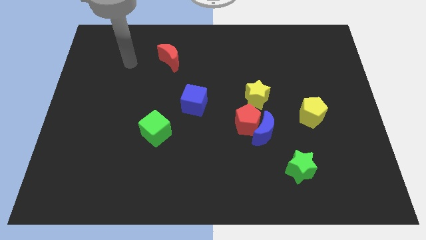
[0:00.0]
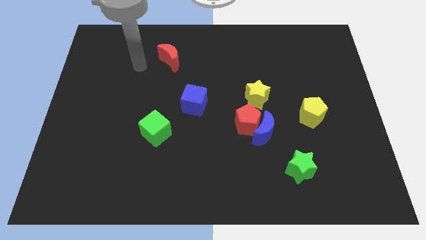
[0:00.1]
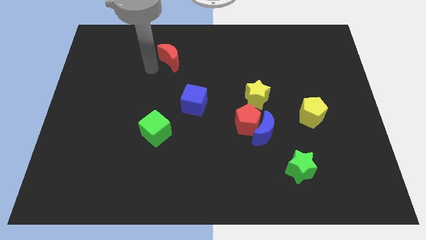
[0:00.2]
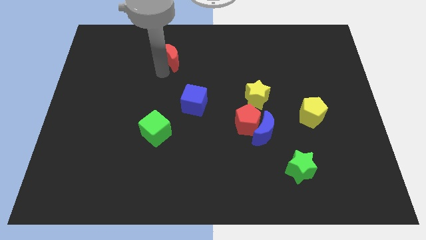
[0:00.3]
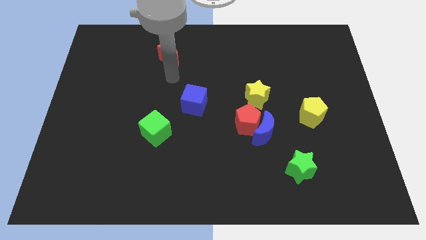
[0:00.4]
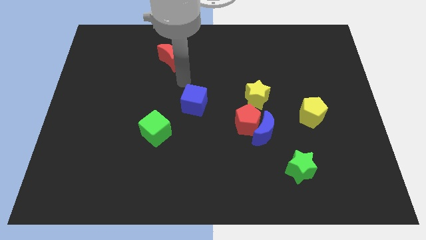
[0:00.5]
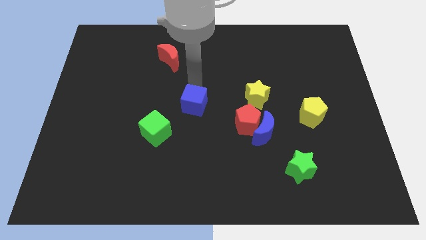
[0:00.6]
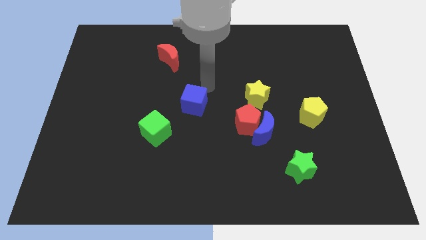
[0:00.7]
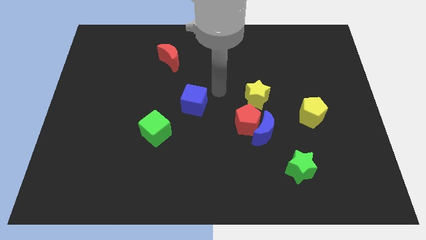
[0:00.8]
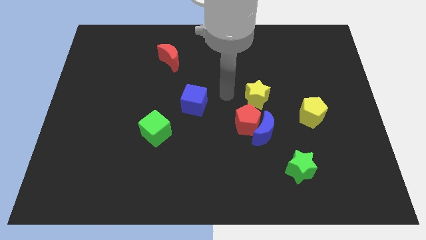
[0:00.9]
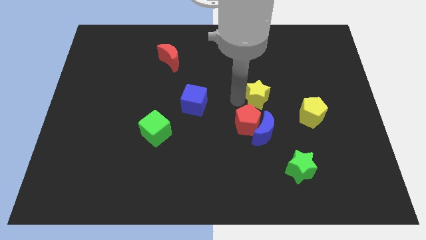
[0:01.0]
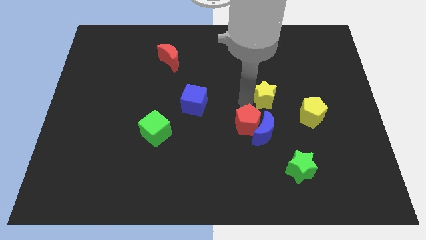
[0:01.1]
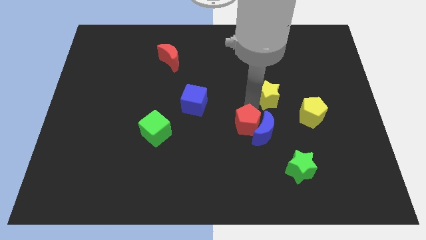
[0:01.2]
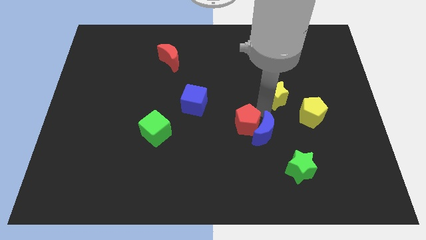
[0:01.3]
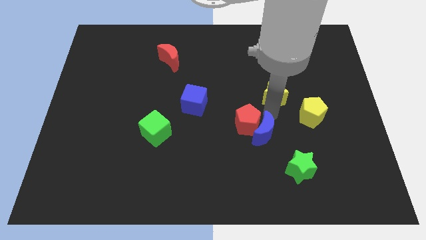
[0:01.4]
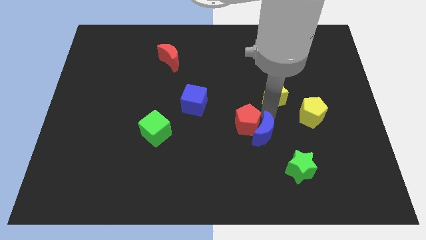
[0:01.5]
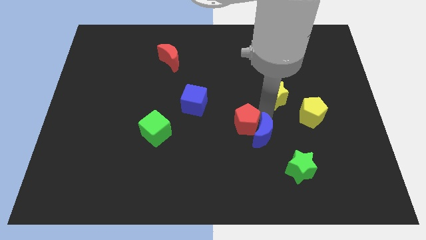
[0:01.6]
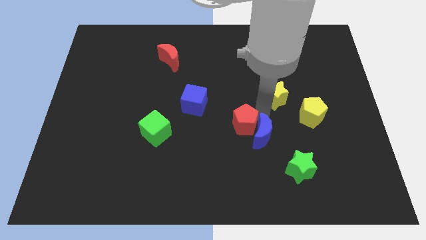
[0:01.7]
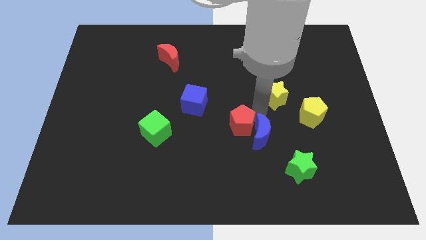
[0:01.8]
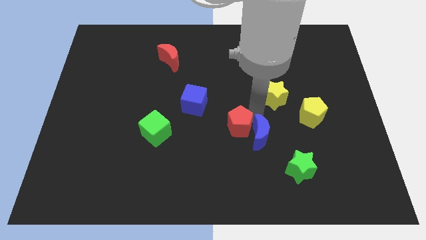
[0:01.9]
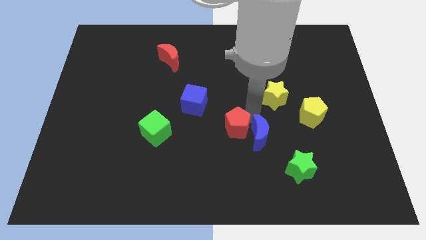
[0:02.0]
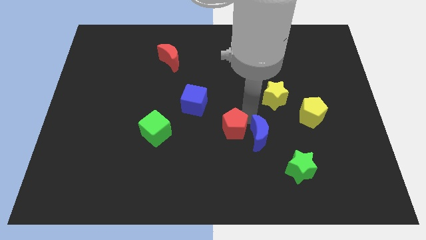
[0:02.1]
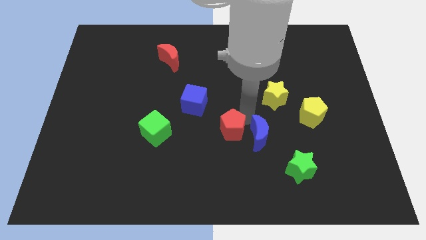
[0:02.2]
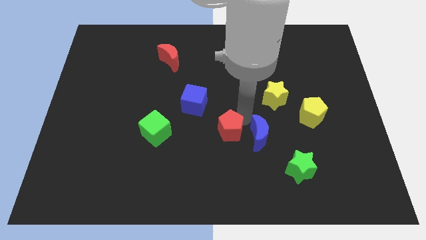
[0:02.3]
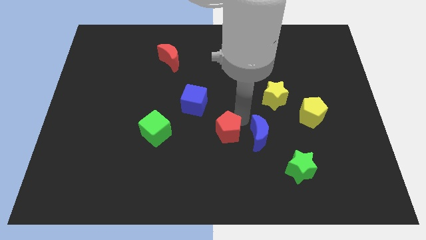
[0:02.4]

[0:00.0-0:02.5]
separate the red pentagon from the blue moon and yellow star

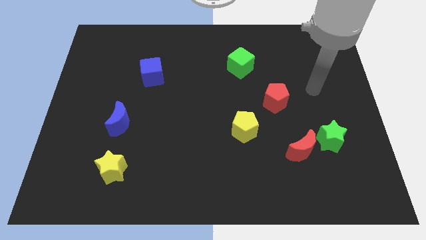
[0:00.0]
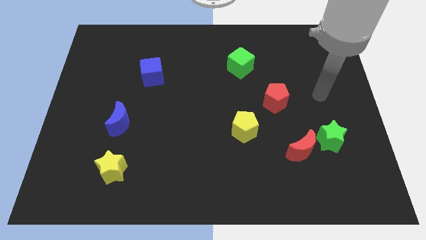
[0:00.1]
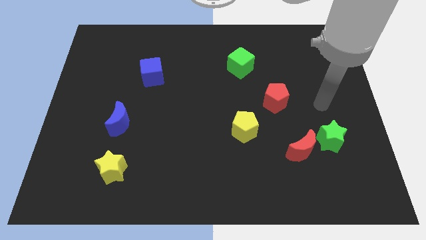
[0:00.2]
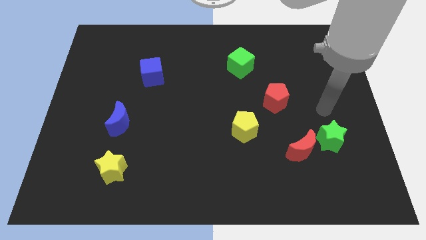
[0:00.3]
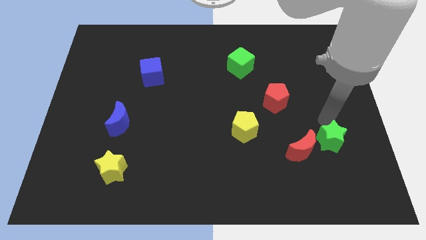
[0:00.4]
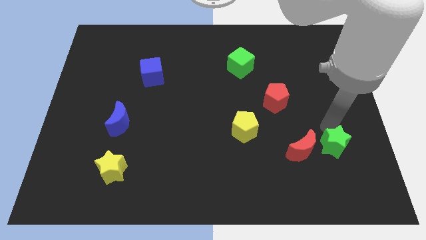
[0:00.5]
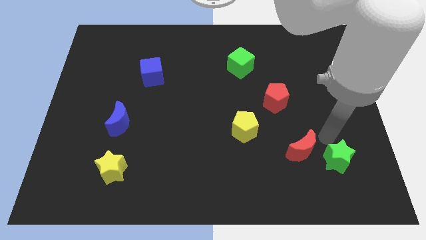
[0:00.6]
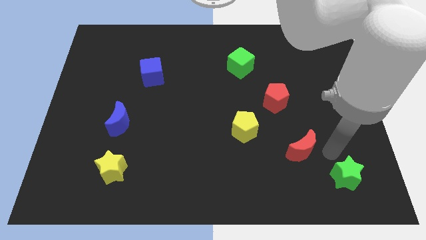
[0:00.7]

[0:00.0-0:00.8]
move the red moon away from the green star

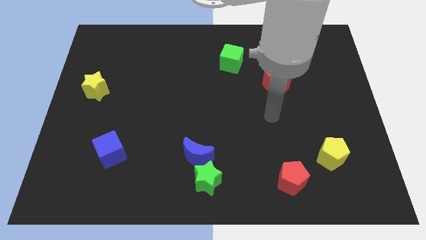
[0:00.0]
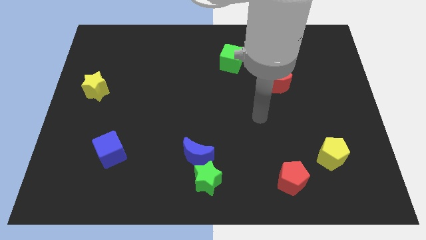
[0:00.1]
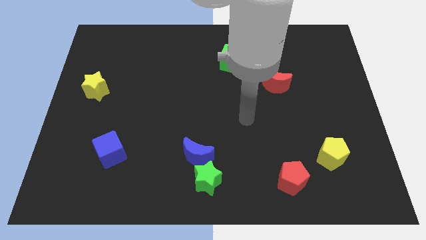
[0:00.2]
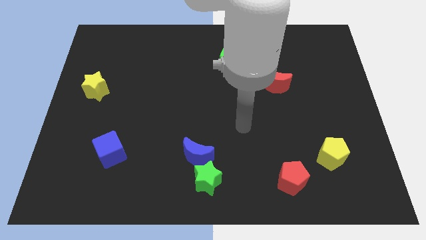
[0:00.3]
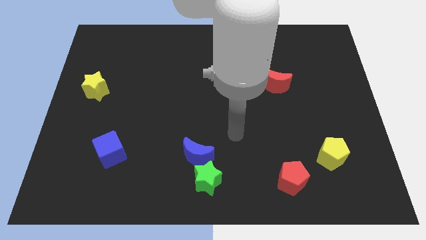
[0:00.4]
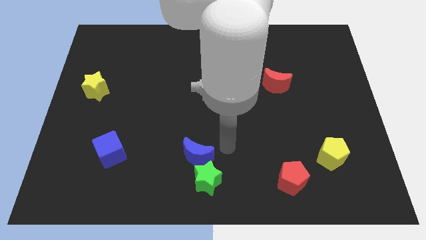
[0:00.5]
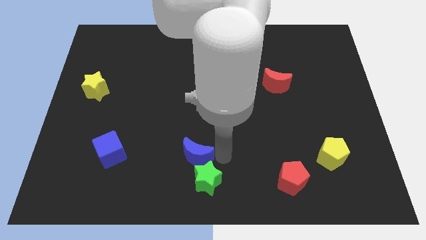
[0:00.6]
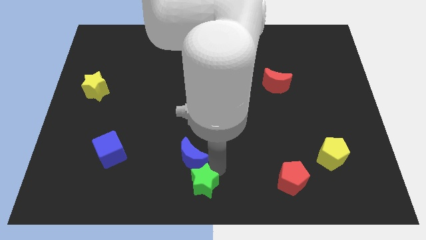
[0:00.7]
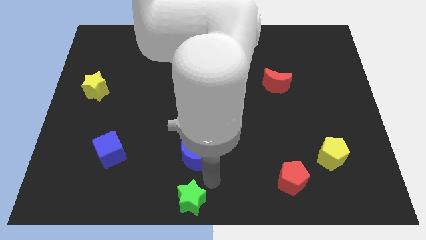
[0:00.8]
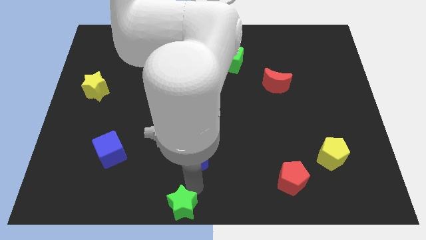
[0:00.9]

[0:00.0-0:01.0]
pull the blue moon apart from the green star

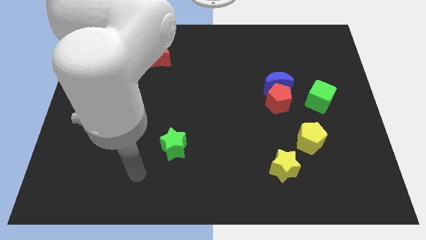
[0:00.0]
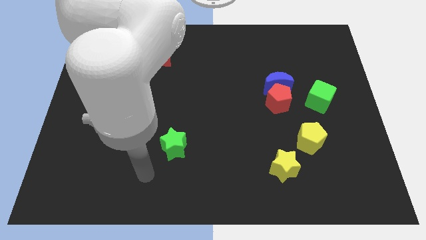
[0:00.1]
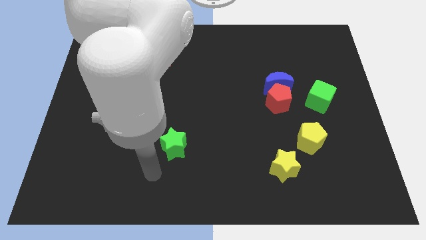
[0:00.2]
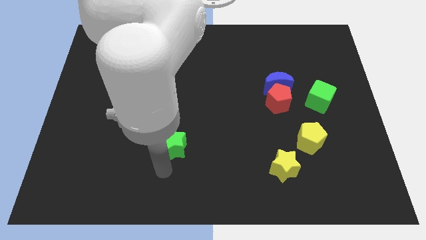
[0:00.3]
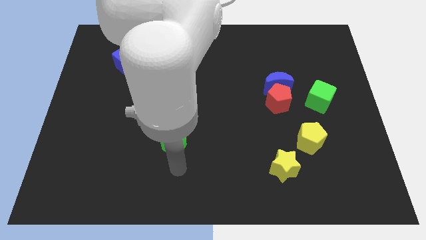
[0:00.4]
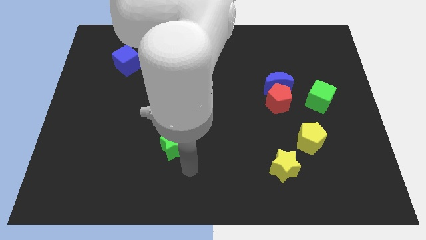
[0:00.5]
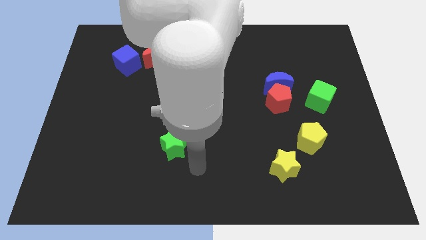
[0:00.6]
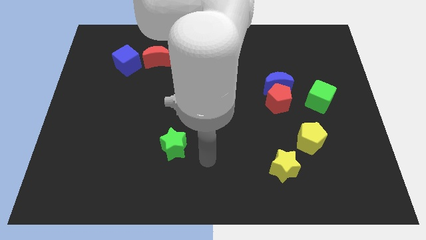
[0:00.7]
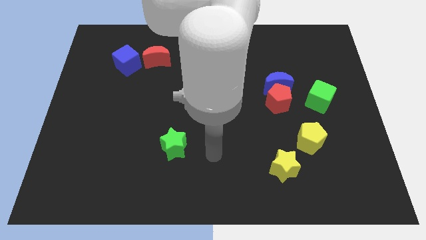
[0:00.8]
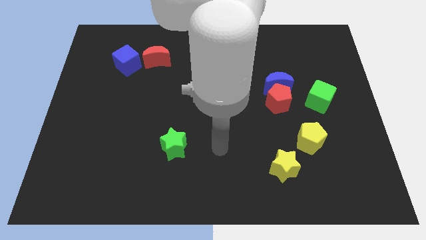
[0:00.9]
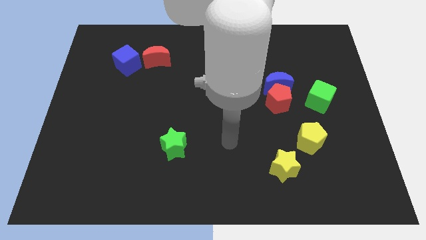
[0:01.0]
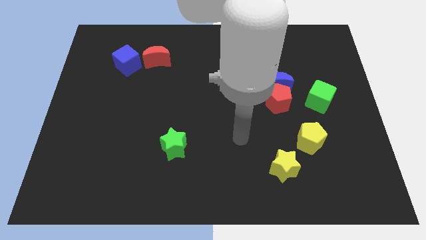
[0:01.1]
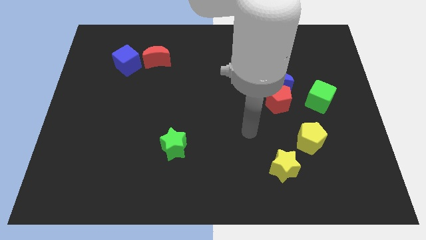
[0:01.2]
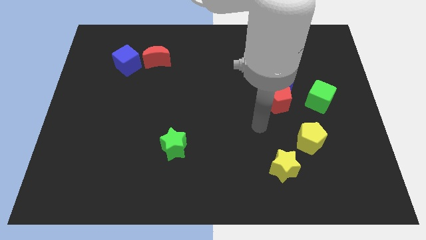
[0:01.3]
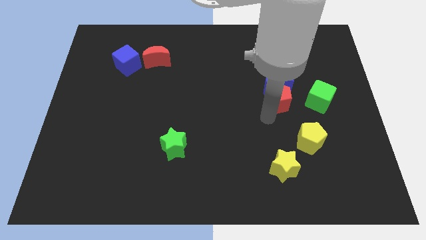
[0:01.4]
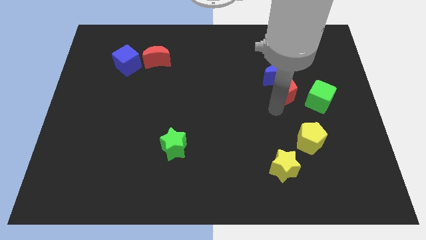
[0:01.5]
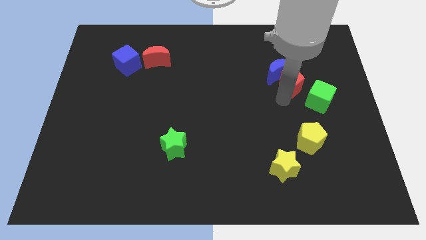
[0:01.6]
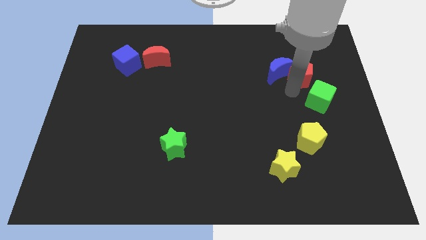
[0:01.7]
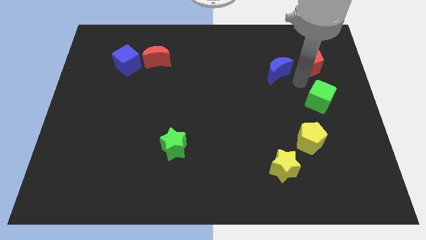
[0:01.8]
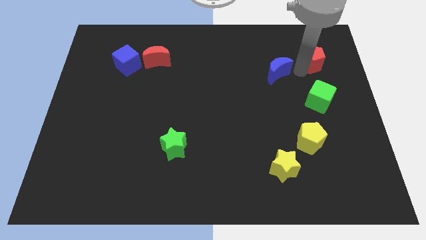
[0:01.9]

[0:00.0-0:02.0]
separate the blue moon from the red pentagon

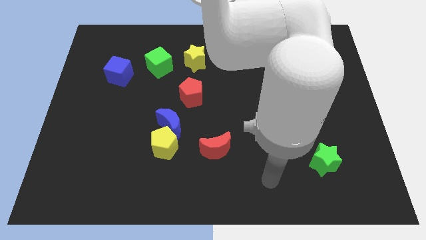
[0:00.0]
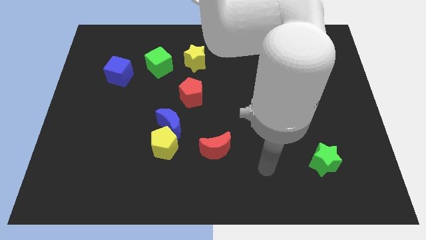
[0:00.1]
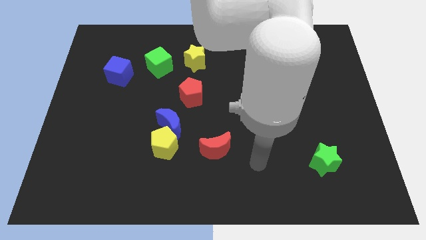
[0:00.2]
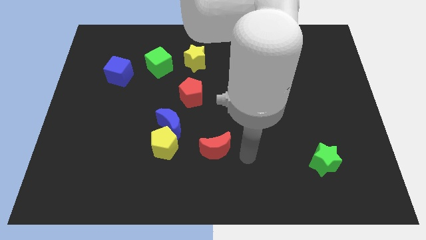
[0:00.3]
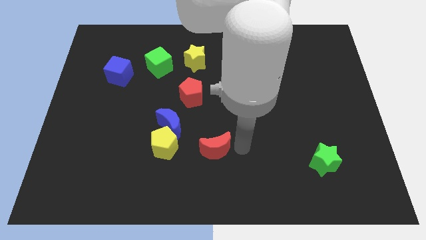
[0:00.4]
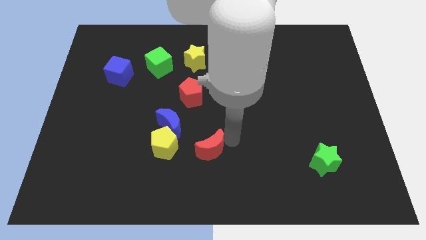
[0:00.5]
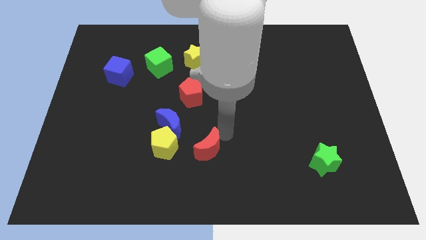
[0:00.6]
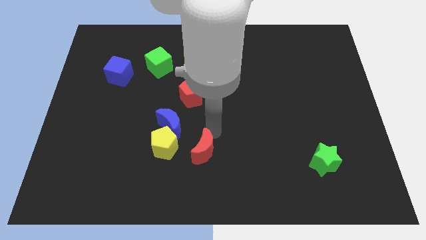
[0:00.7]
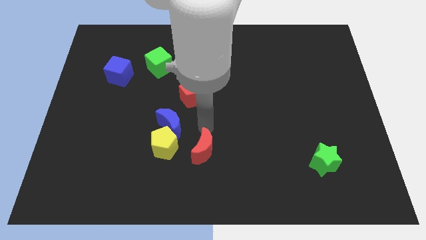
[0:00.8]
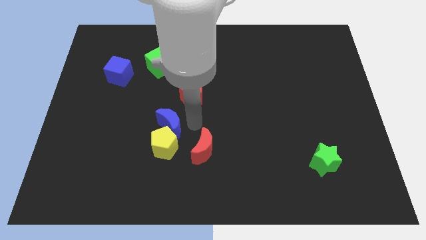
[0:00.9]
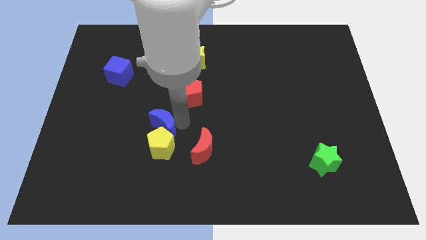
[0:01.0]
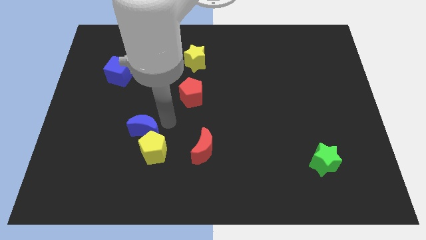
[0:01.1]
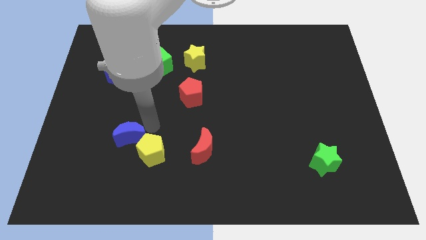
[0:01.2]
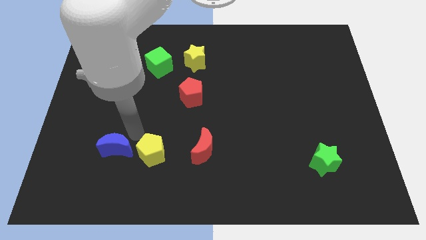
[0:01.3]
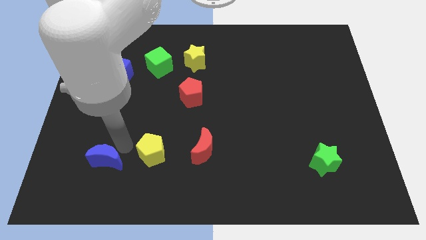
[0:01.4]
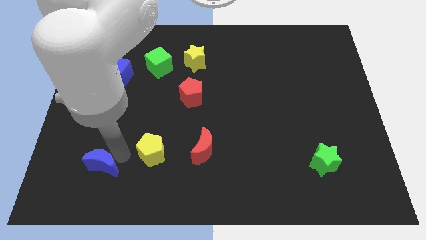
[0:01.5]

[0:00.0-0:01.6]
pull the yellow pentagon apart from the blue moon

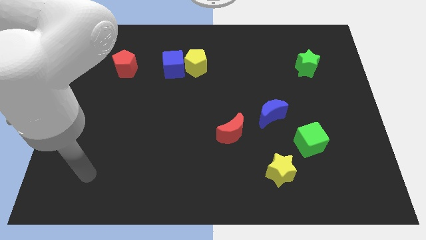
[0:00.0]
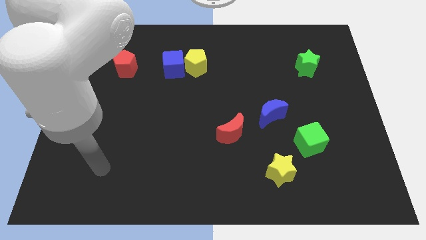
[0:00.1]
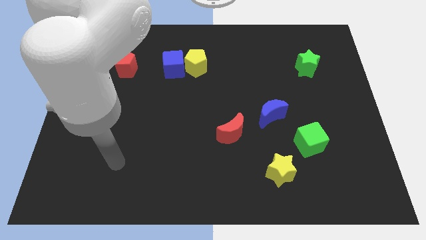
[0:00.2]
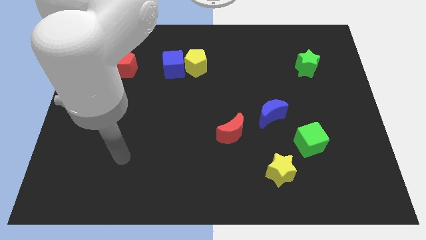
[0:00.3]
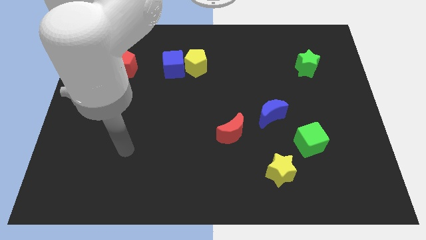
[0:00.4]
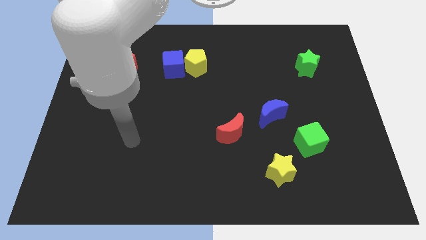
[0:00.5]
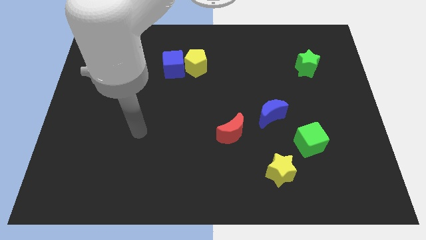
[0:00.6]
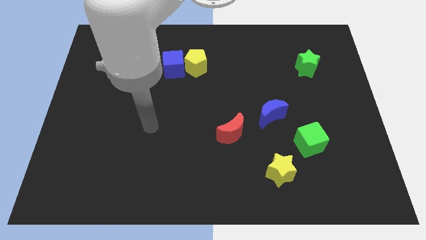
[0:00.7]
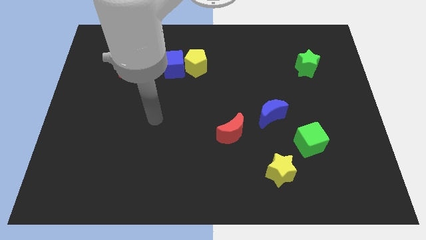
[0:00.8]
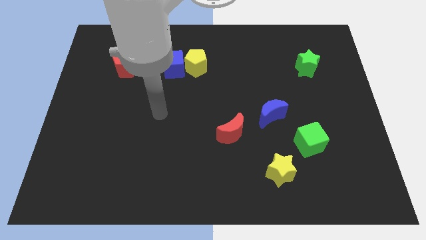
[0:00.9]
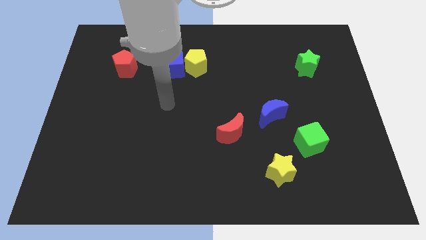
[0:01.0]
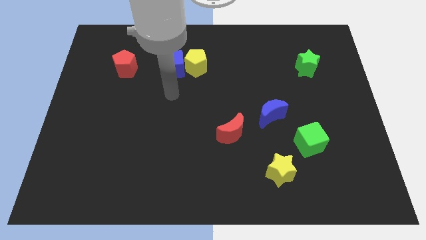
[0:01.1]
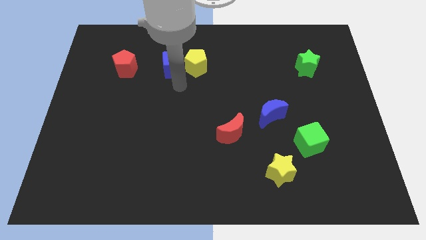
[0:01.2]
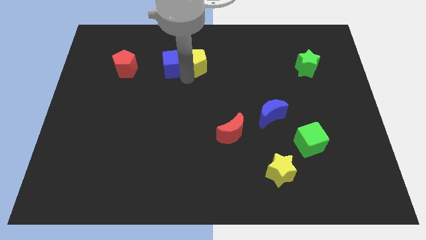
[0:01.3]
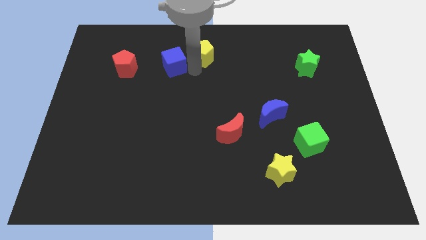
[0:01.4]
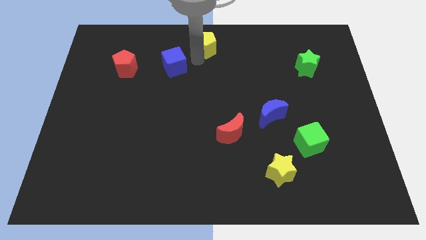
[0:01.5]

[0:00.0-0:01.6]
separate the blue cube from the yellow pentagon
